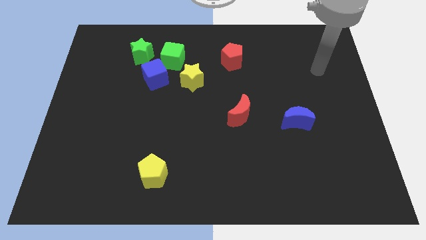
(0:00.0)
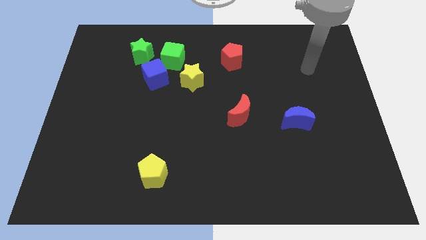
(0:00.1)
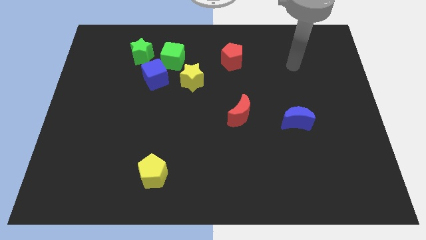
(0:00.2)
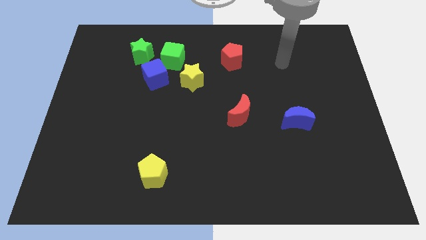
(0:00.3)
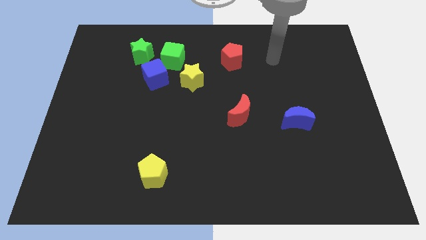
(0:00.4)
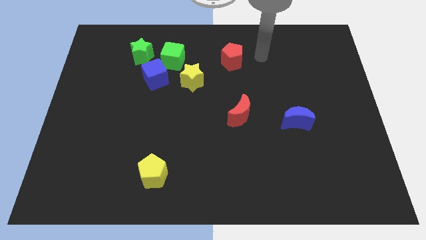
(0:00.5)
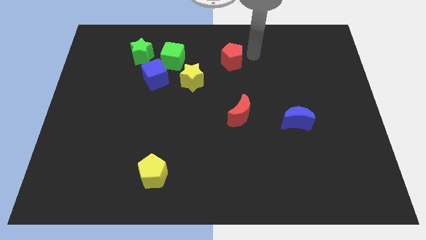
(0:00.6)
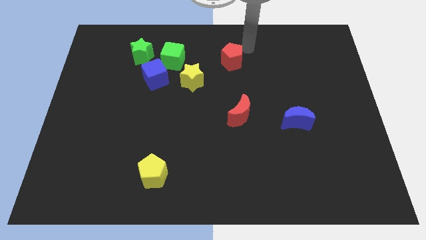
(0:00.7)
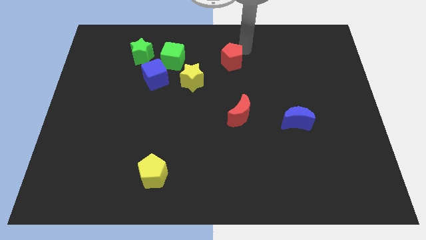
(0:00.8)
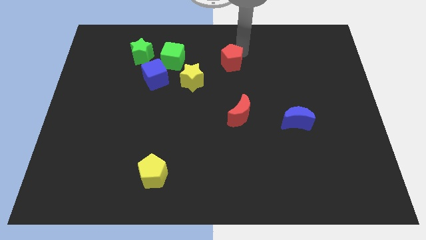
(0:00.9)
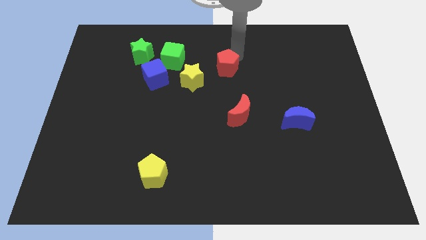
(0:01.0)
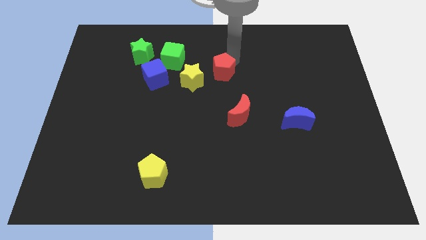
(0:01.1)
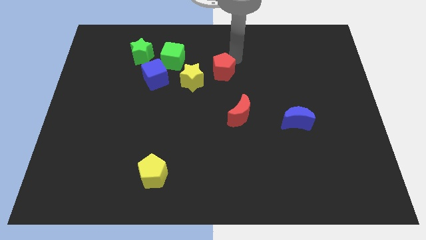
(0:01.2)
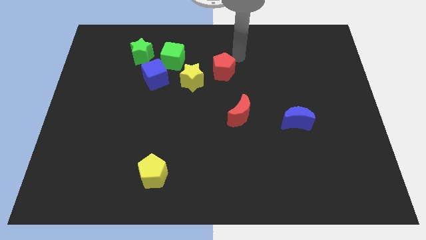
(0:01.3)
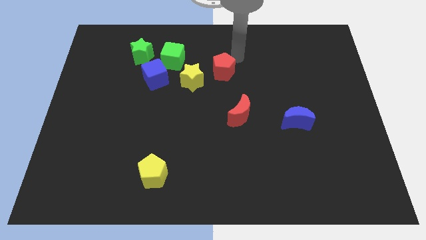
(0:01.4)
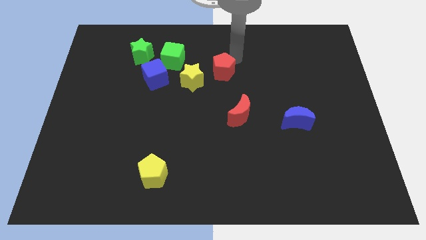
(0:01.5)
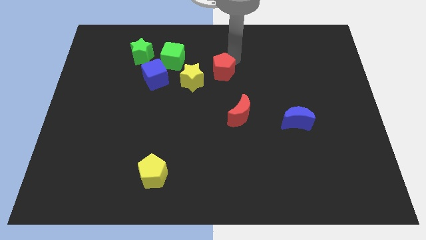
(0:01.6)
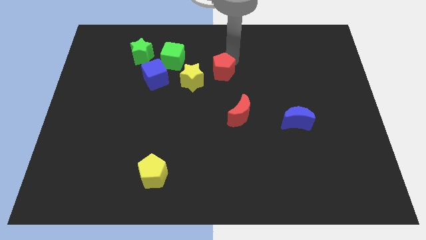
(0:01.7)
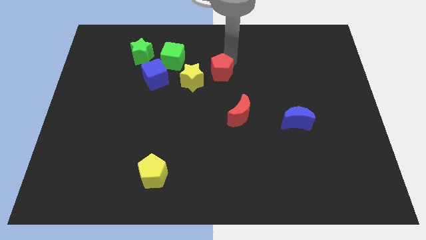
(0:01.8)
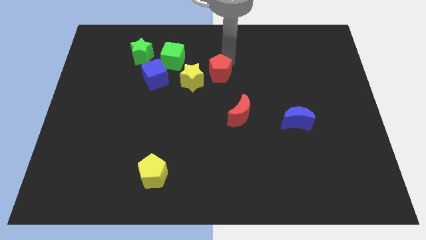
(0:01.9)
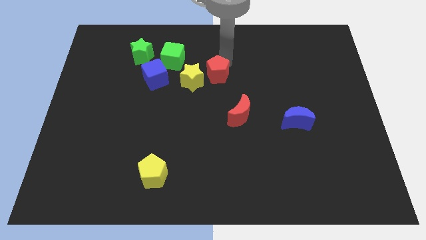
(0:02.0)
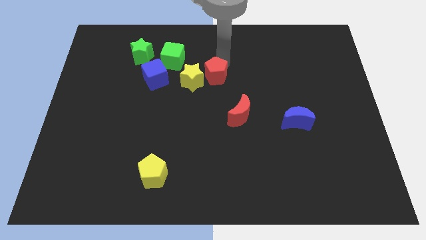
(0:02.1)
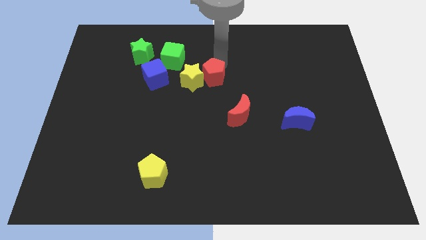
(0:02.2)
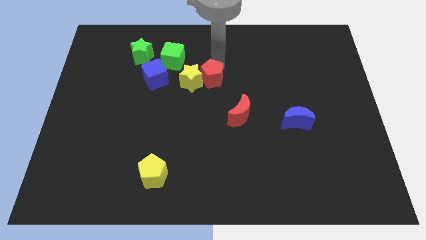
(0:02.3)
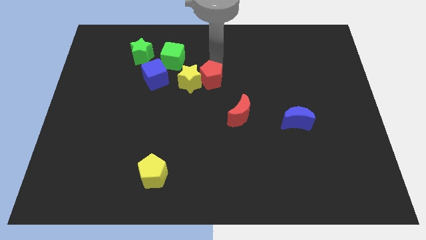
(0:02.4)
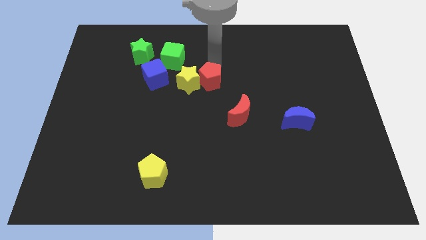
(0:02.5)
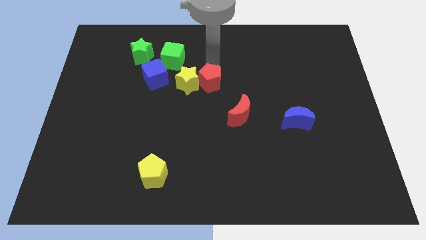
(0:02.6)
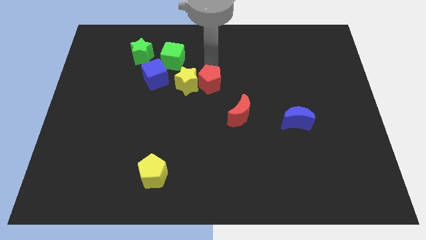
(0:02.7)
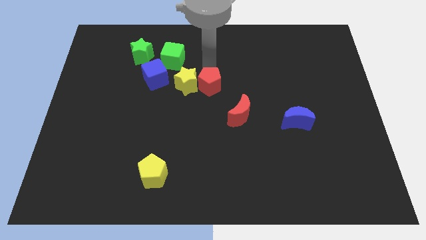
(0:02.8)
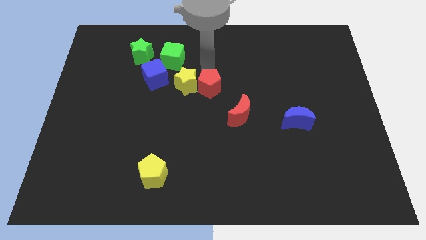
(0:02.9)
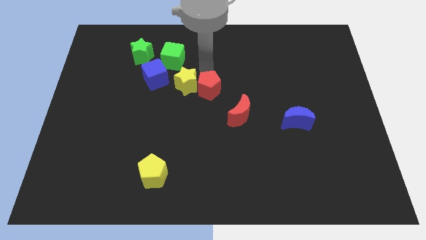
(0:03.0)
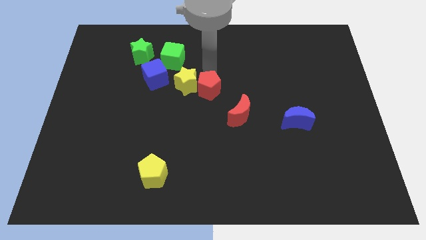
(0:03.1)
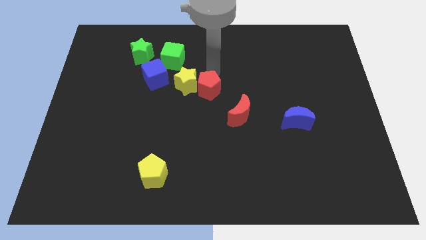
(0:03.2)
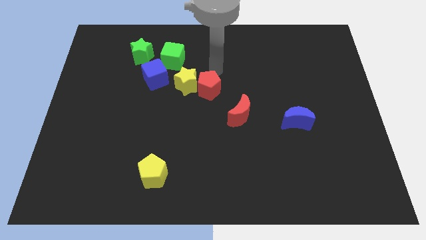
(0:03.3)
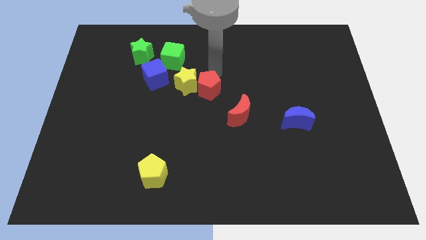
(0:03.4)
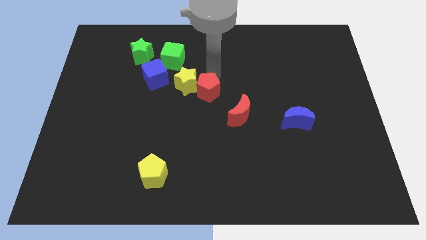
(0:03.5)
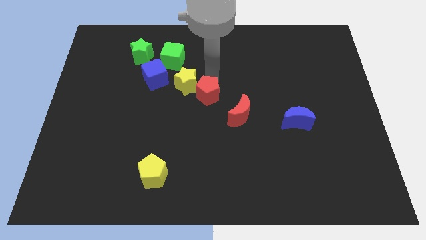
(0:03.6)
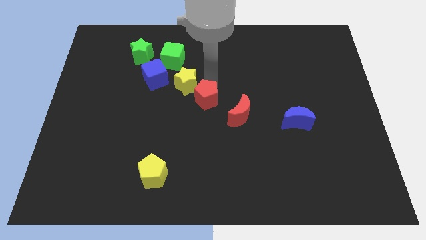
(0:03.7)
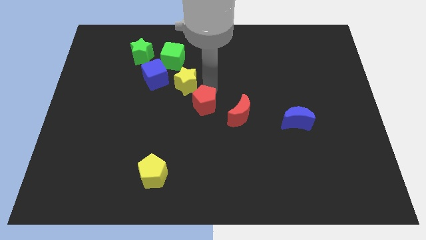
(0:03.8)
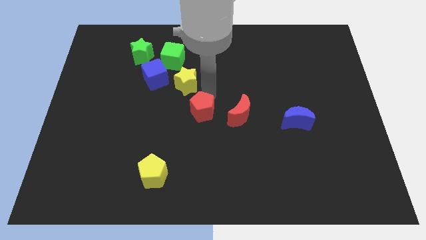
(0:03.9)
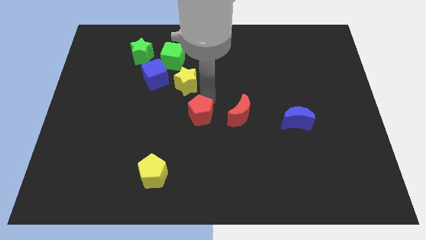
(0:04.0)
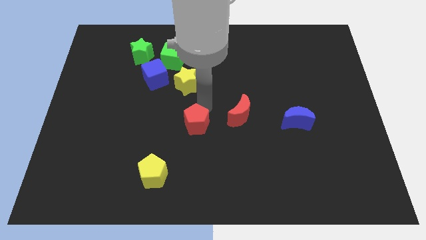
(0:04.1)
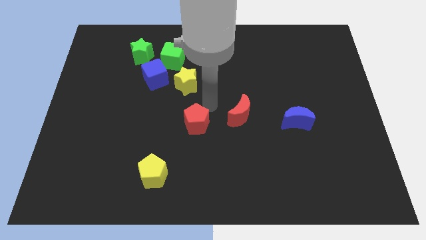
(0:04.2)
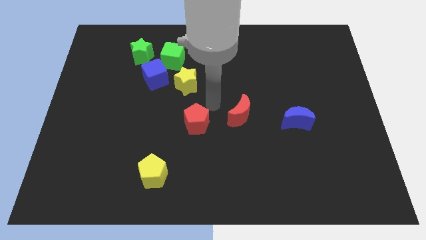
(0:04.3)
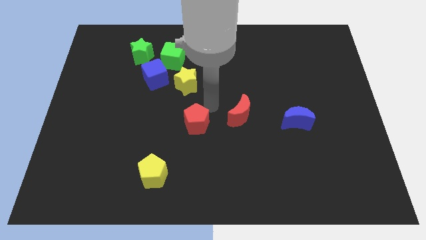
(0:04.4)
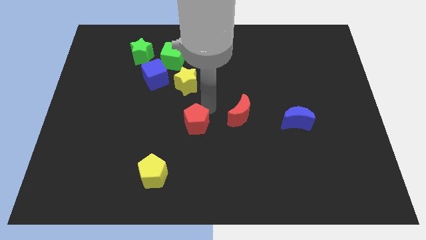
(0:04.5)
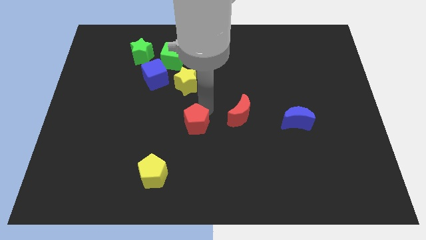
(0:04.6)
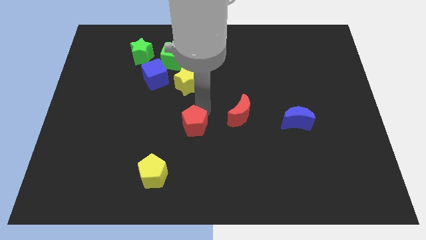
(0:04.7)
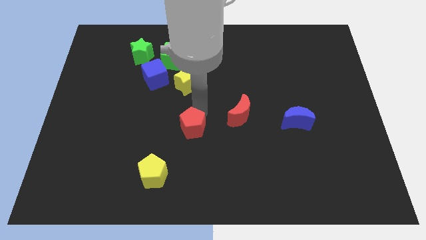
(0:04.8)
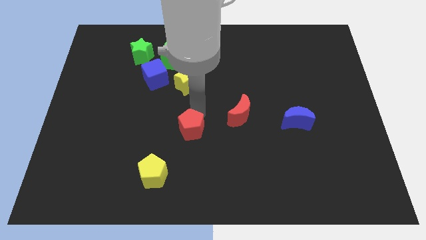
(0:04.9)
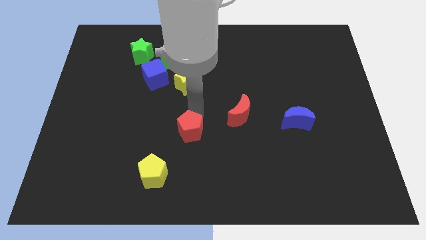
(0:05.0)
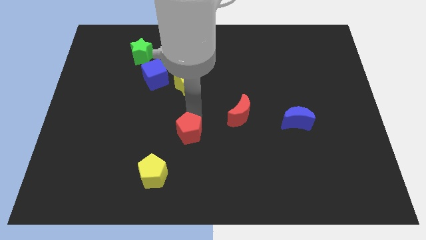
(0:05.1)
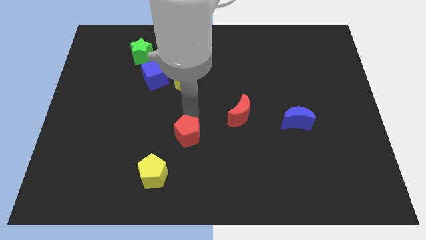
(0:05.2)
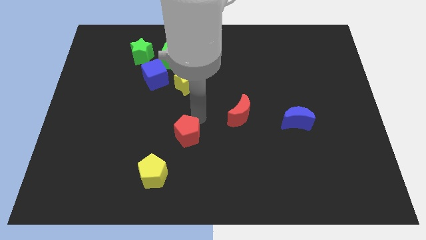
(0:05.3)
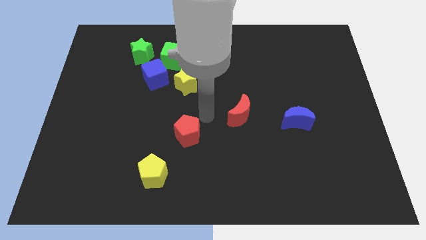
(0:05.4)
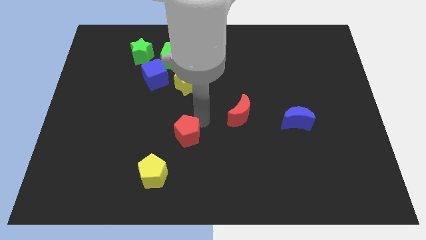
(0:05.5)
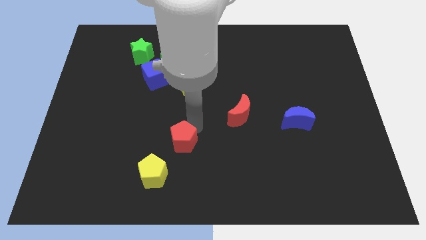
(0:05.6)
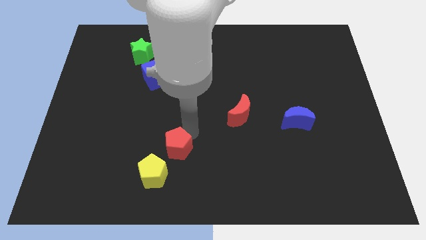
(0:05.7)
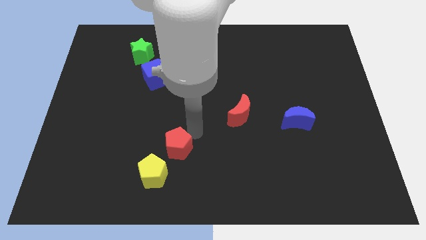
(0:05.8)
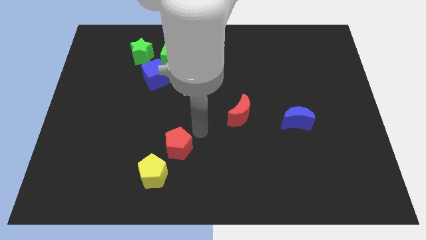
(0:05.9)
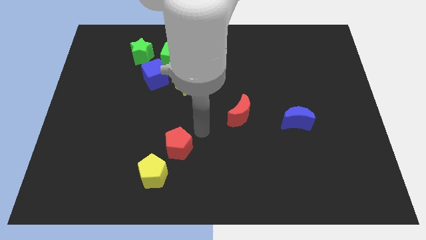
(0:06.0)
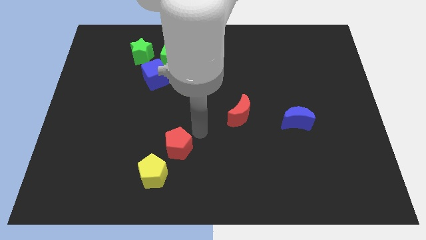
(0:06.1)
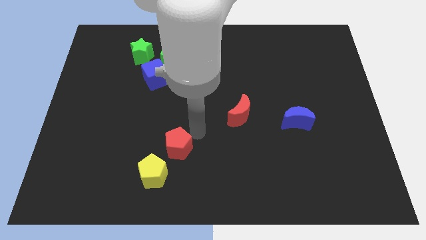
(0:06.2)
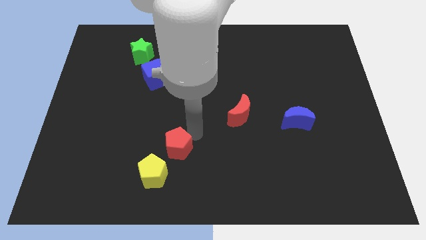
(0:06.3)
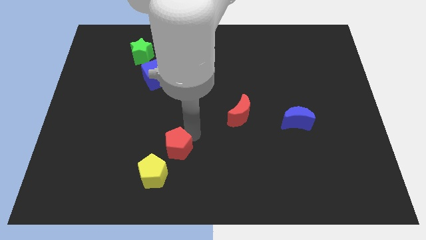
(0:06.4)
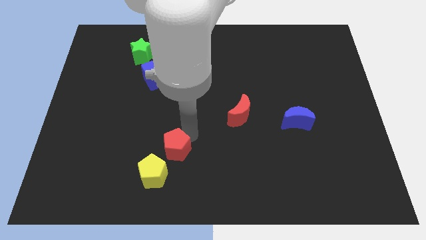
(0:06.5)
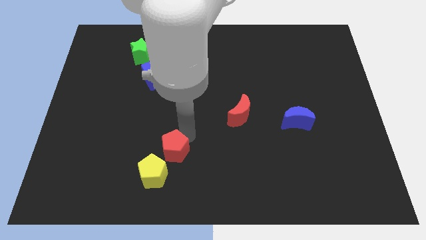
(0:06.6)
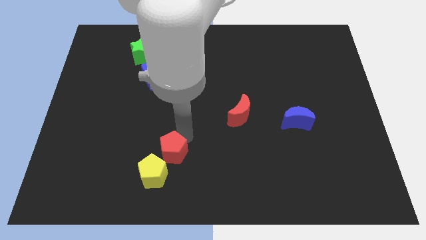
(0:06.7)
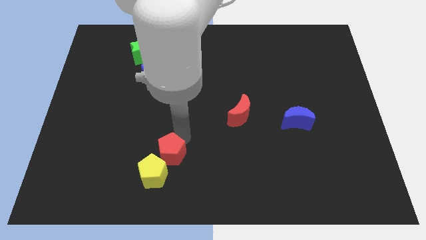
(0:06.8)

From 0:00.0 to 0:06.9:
push the red pentagon next to the yellow pentagon

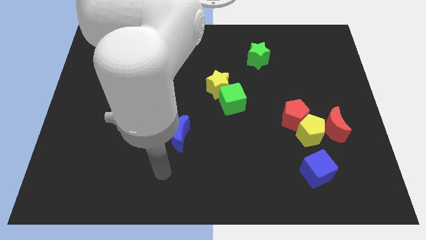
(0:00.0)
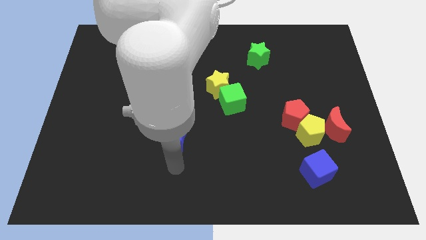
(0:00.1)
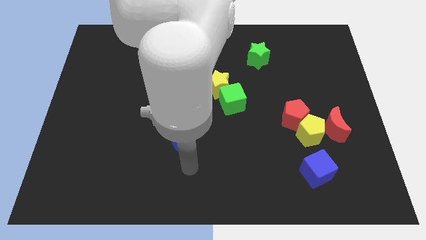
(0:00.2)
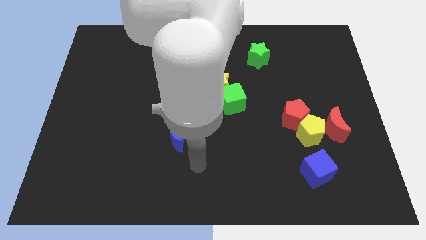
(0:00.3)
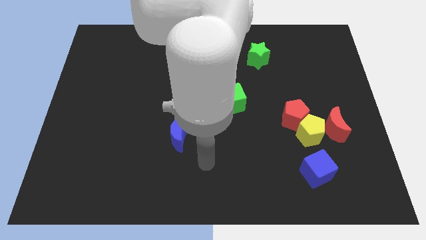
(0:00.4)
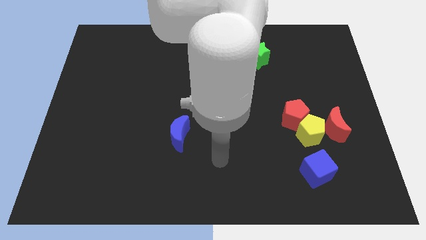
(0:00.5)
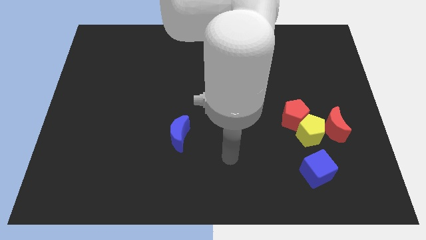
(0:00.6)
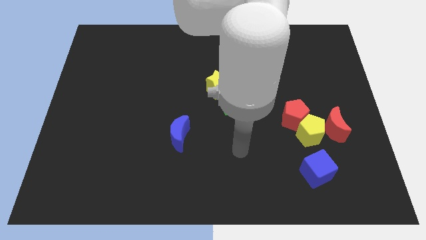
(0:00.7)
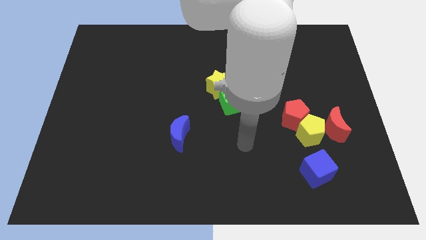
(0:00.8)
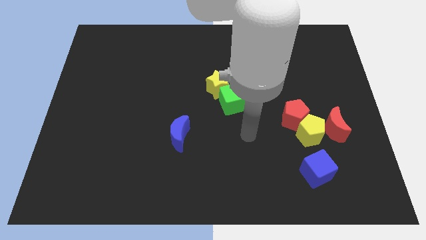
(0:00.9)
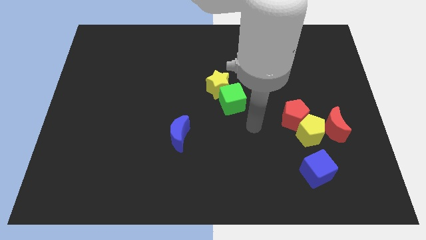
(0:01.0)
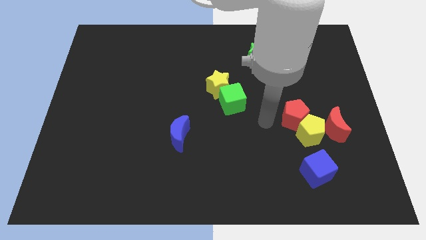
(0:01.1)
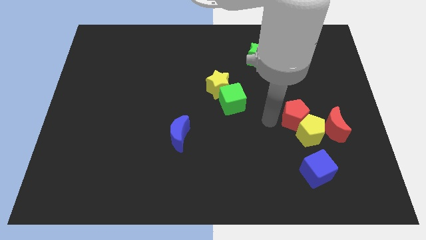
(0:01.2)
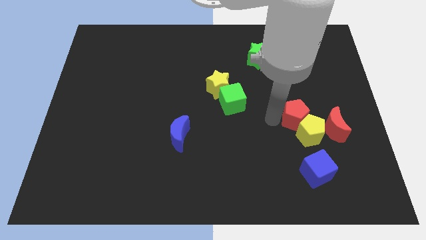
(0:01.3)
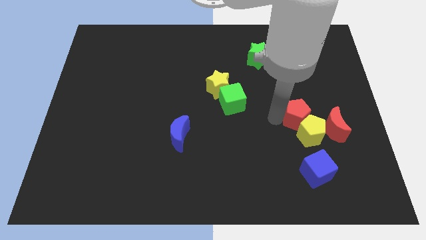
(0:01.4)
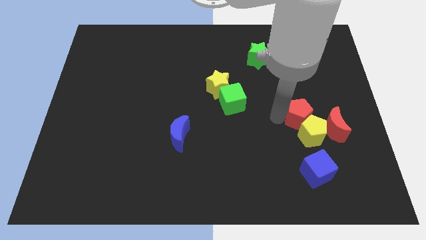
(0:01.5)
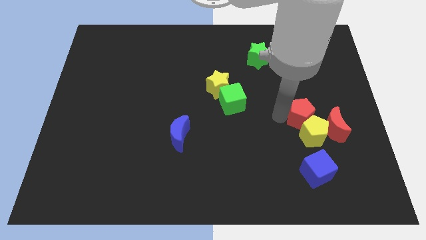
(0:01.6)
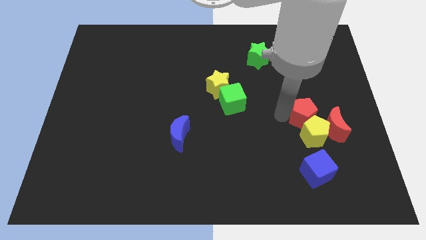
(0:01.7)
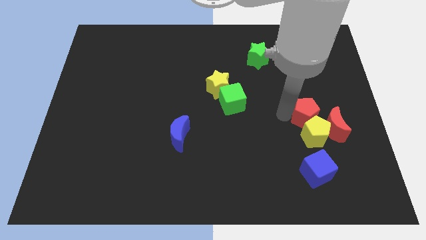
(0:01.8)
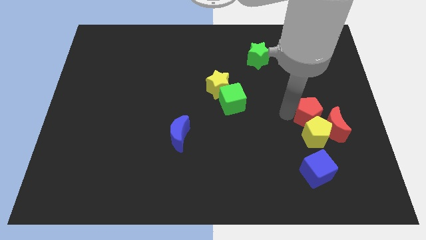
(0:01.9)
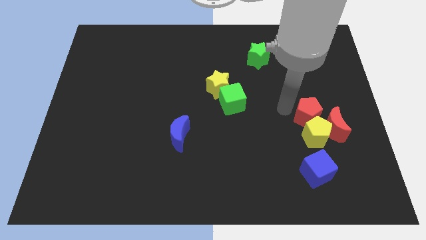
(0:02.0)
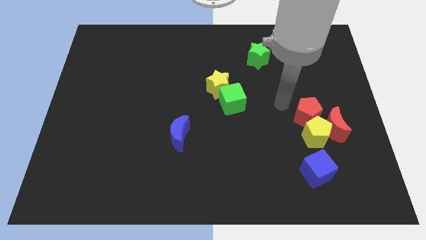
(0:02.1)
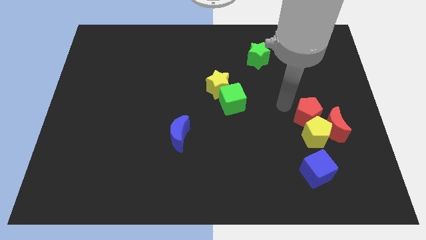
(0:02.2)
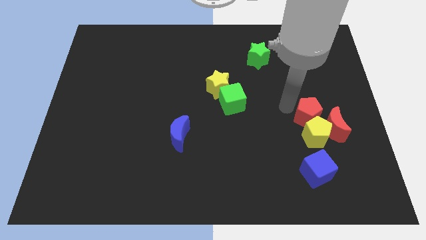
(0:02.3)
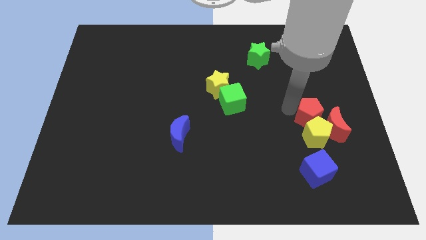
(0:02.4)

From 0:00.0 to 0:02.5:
slide the red pentagon to the red moon
